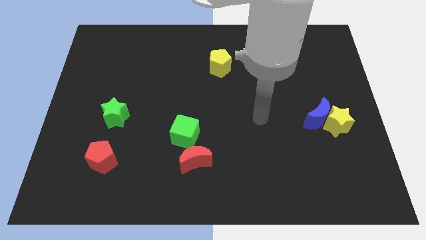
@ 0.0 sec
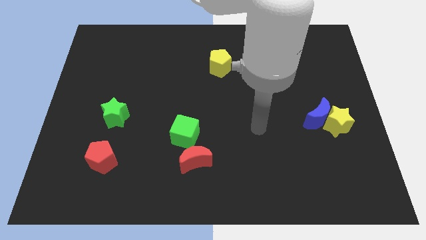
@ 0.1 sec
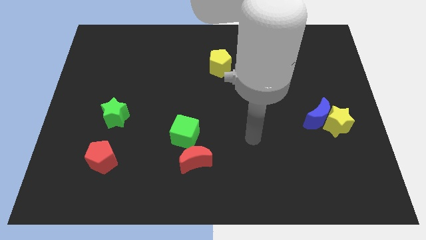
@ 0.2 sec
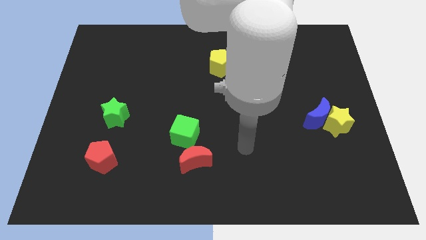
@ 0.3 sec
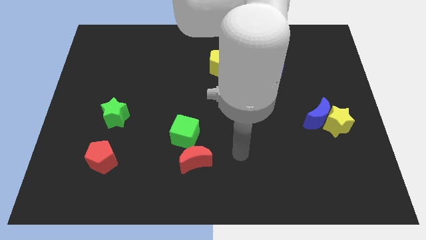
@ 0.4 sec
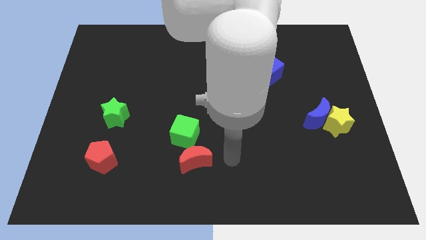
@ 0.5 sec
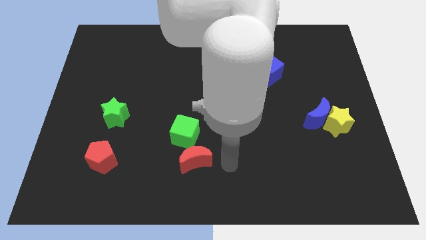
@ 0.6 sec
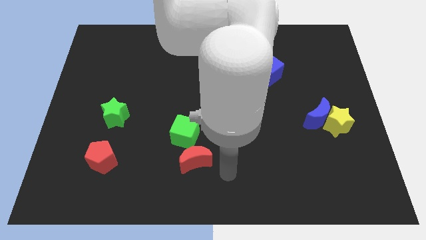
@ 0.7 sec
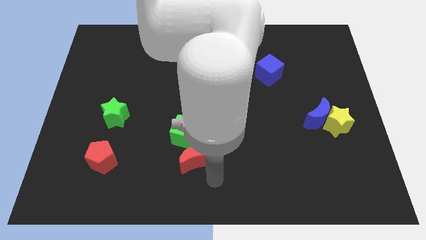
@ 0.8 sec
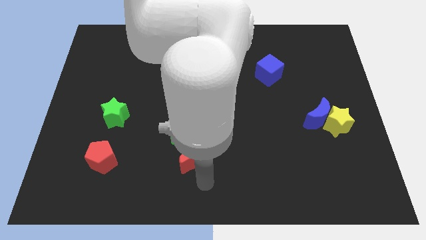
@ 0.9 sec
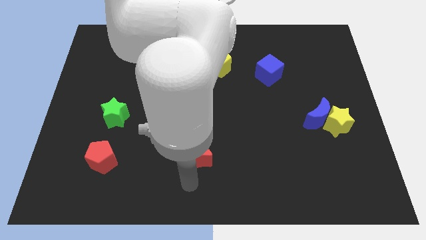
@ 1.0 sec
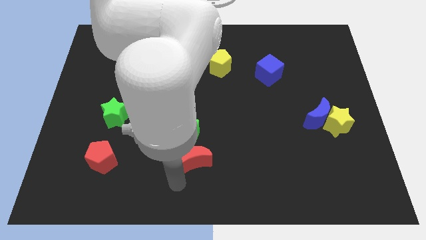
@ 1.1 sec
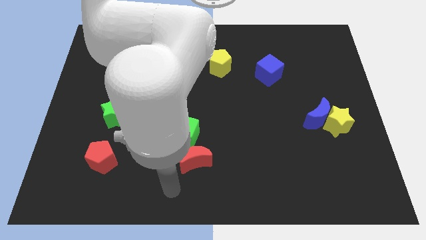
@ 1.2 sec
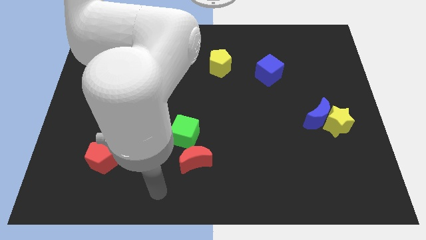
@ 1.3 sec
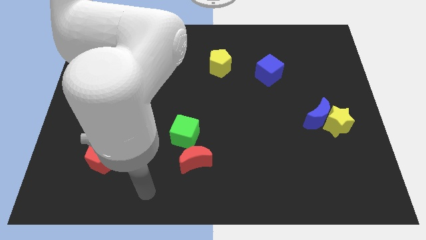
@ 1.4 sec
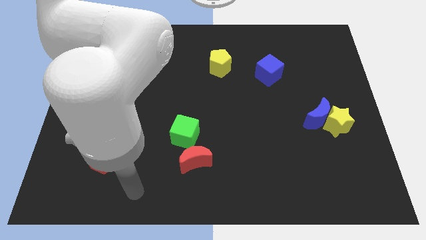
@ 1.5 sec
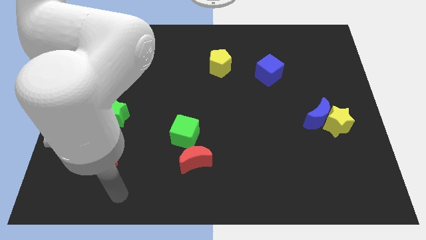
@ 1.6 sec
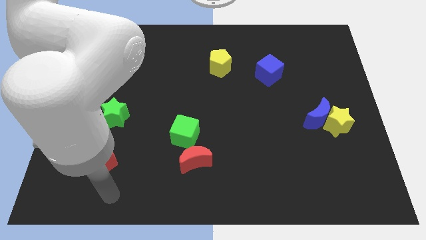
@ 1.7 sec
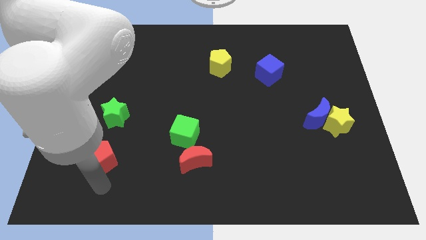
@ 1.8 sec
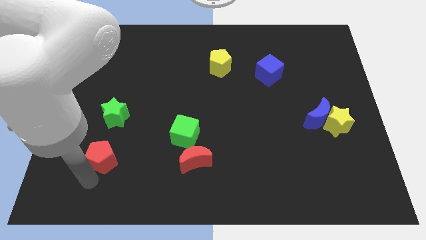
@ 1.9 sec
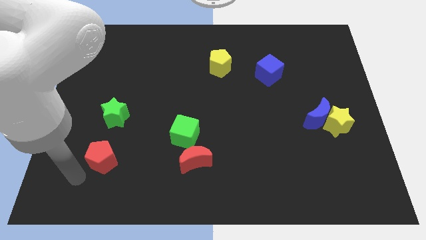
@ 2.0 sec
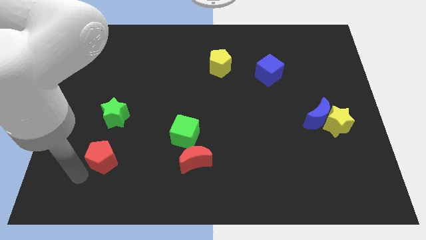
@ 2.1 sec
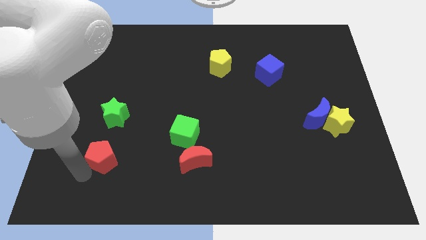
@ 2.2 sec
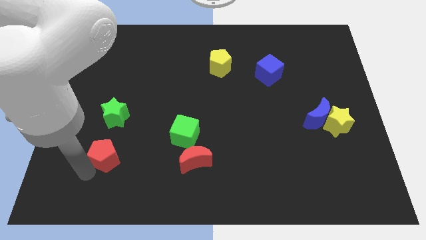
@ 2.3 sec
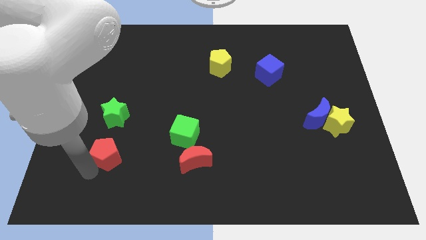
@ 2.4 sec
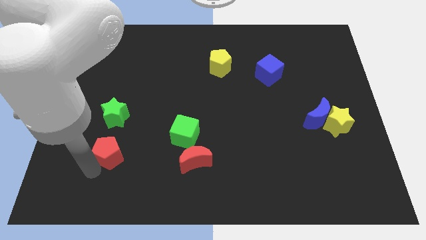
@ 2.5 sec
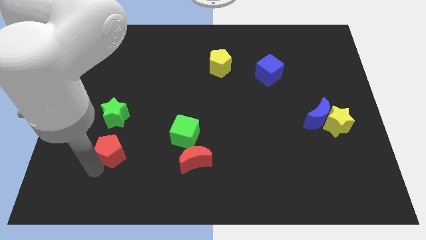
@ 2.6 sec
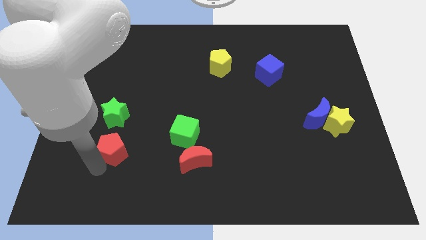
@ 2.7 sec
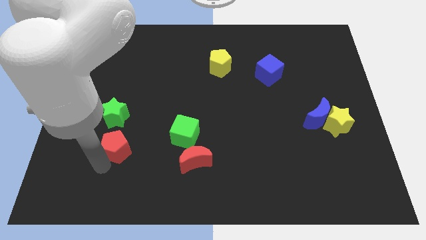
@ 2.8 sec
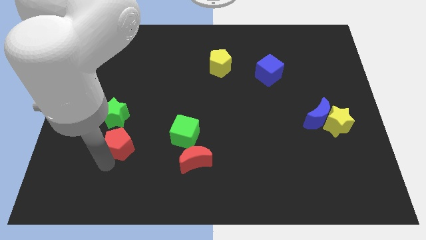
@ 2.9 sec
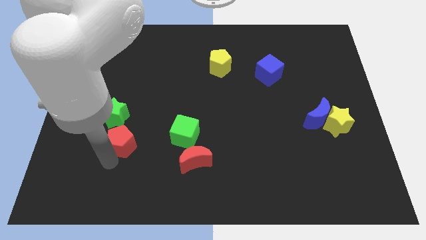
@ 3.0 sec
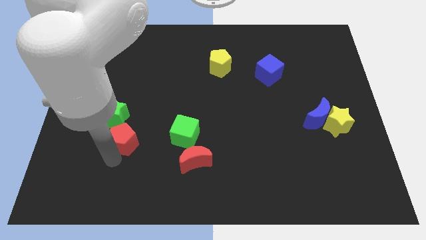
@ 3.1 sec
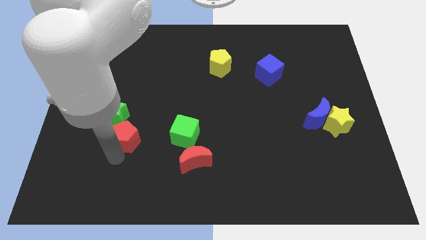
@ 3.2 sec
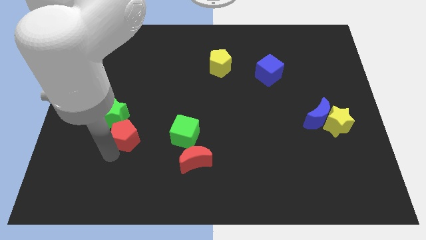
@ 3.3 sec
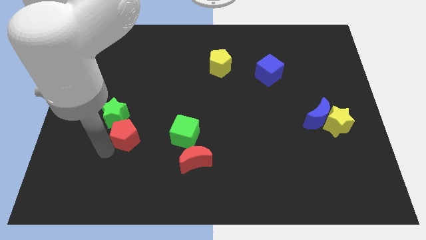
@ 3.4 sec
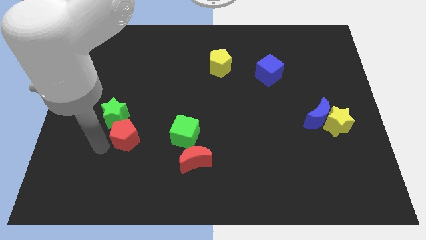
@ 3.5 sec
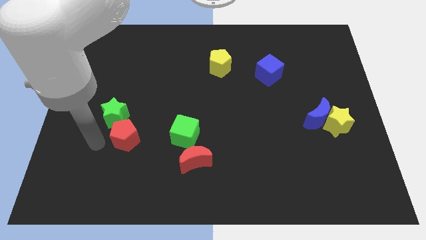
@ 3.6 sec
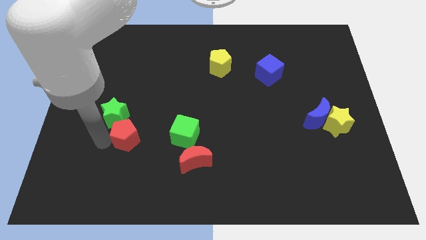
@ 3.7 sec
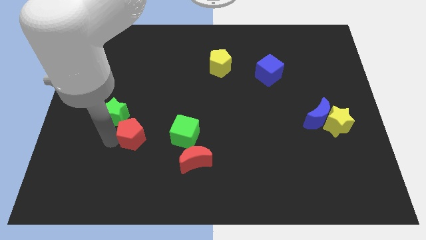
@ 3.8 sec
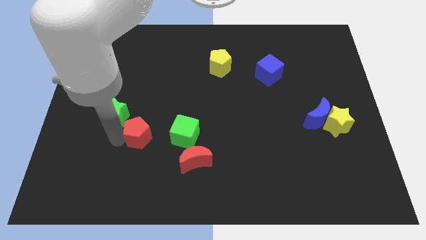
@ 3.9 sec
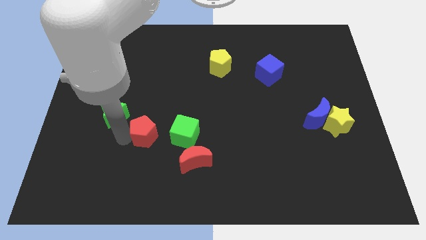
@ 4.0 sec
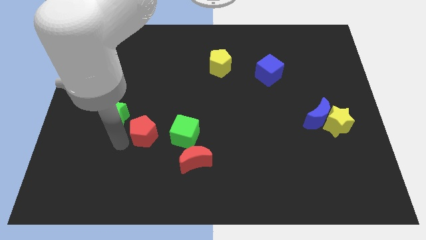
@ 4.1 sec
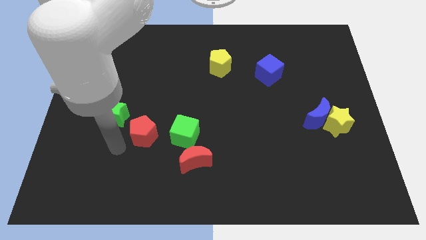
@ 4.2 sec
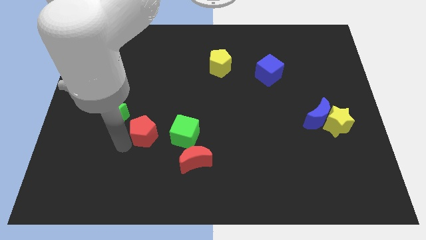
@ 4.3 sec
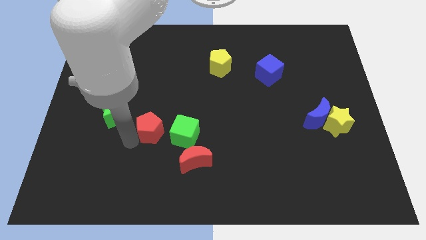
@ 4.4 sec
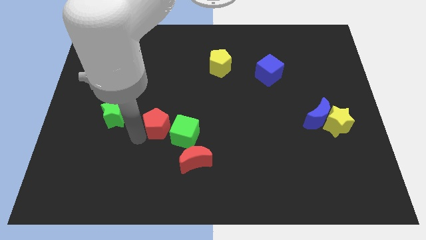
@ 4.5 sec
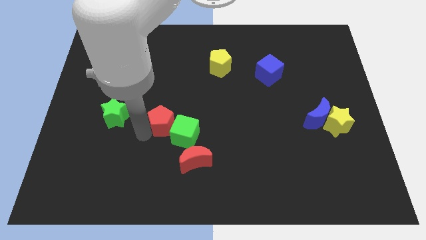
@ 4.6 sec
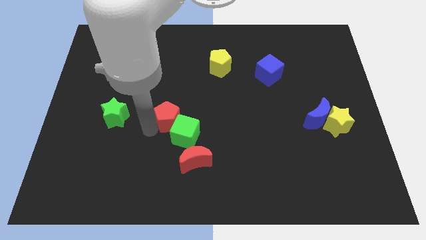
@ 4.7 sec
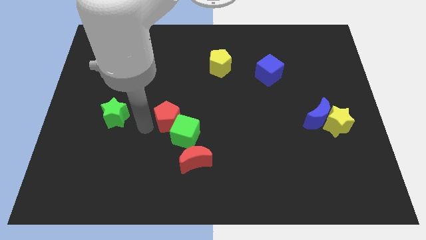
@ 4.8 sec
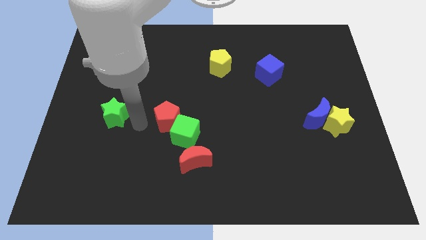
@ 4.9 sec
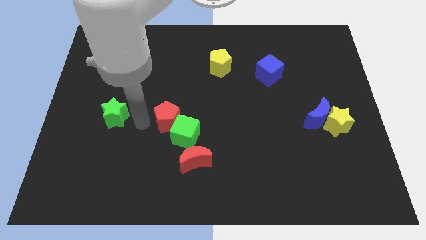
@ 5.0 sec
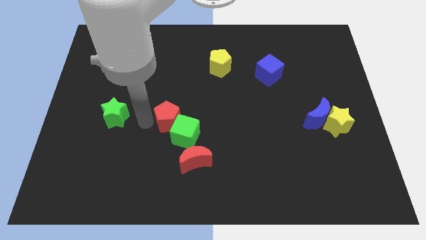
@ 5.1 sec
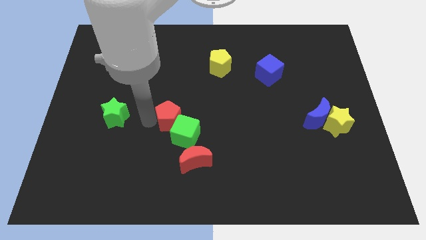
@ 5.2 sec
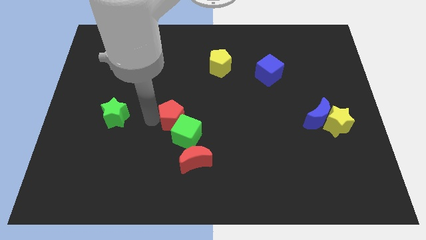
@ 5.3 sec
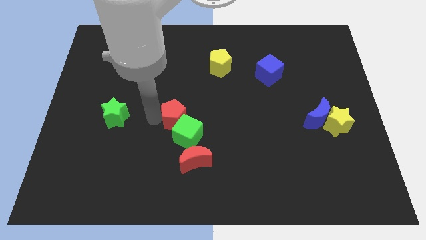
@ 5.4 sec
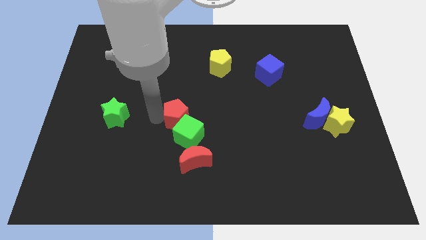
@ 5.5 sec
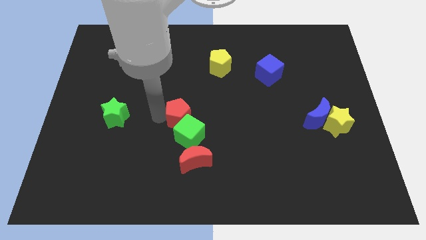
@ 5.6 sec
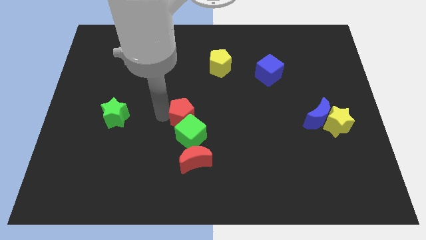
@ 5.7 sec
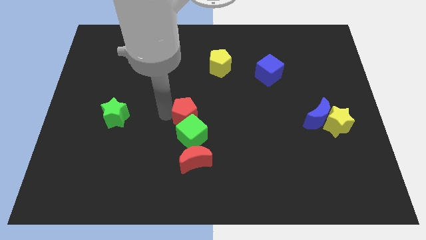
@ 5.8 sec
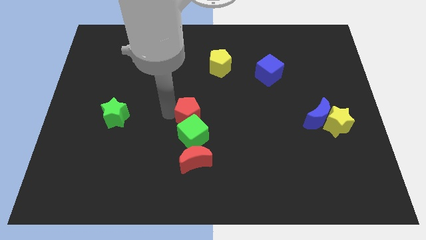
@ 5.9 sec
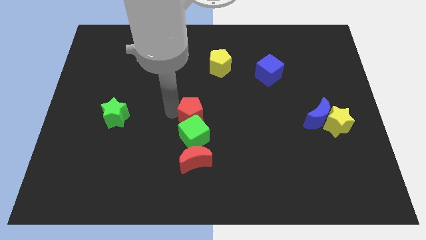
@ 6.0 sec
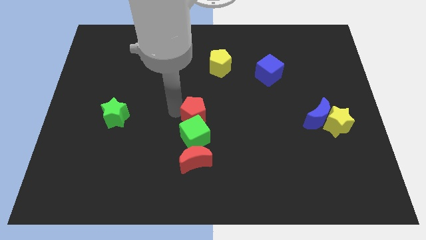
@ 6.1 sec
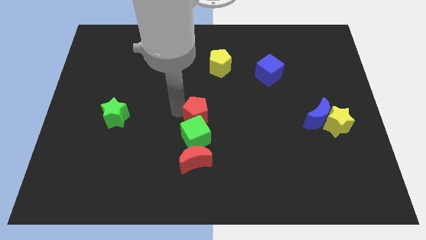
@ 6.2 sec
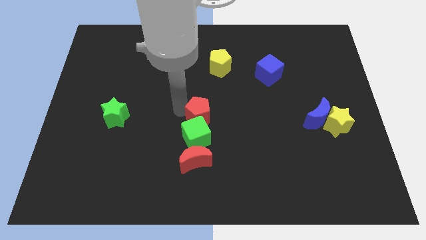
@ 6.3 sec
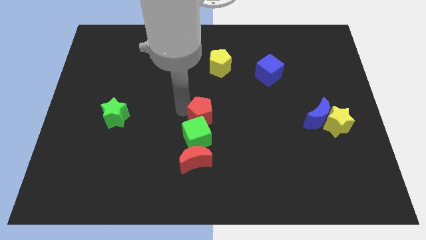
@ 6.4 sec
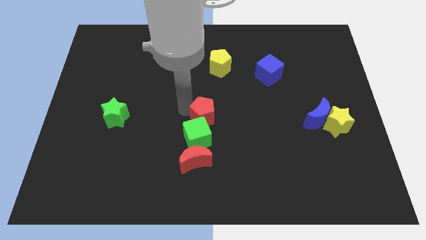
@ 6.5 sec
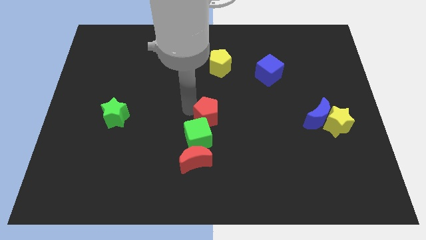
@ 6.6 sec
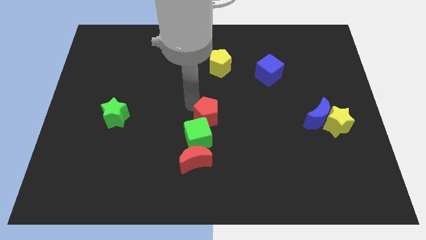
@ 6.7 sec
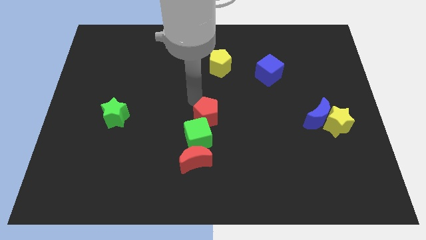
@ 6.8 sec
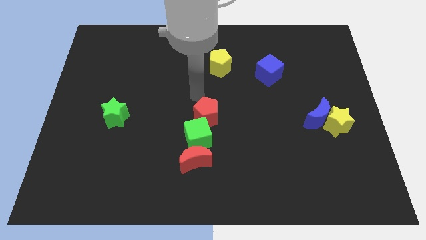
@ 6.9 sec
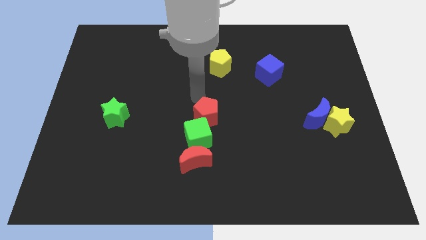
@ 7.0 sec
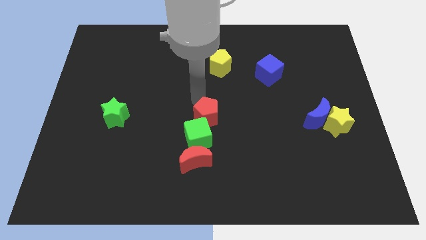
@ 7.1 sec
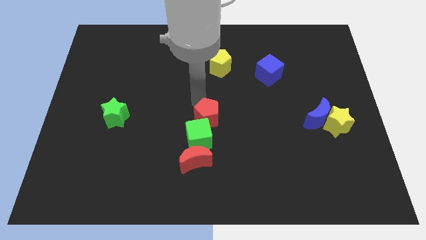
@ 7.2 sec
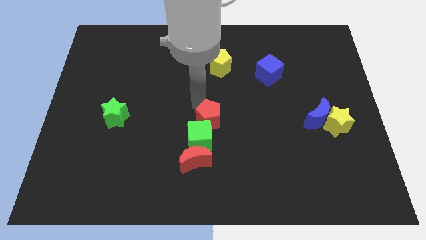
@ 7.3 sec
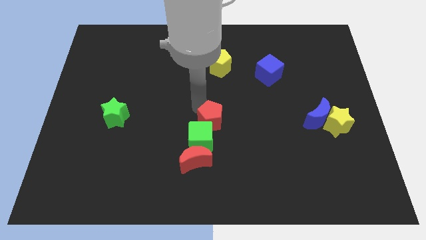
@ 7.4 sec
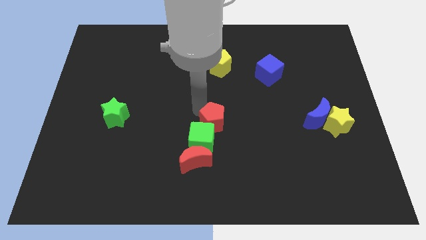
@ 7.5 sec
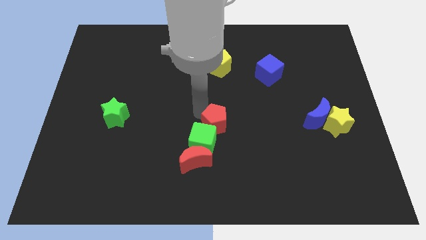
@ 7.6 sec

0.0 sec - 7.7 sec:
put the red pentagon to the top right side of the red moon
